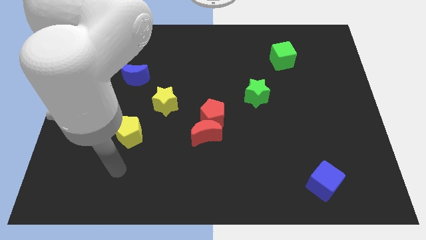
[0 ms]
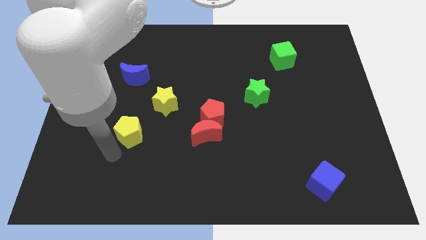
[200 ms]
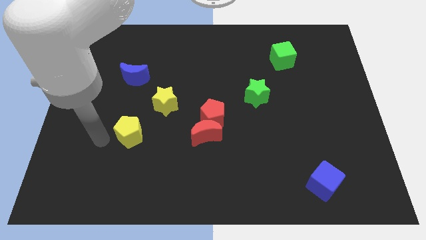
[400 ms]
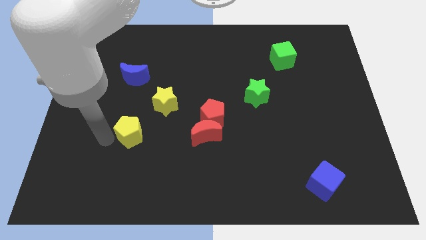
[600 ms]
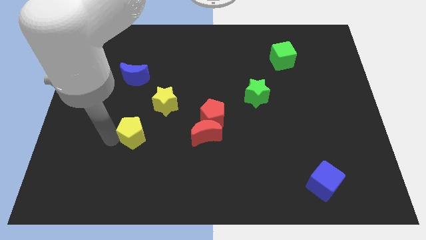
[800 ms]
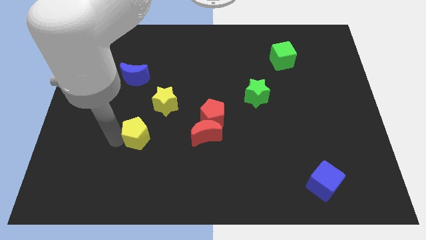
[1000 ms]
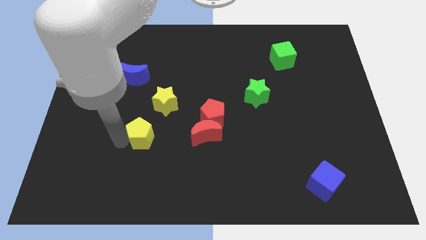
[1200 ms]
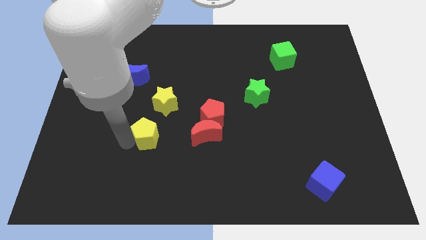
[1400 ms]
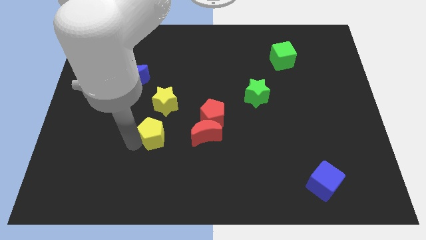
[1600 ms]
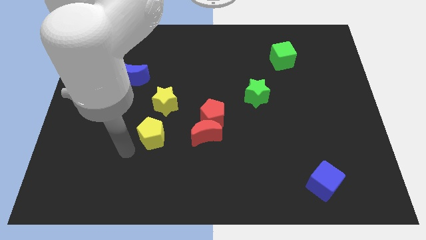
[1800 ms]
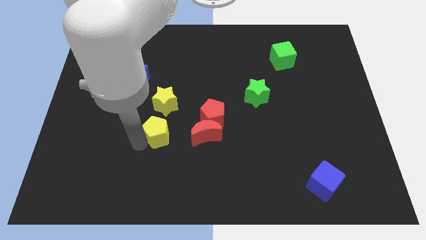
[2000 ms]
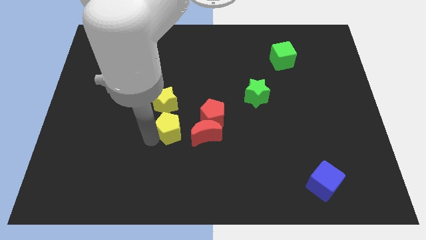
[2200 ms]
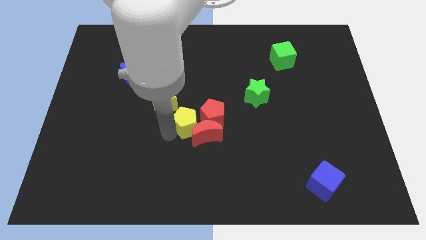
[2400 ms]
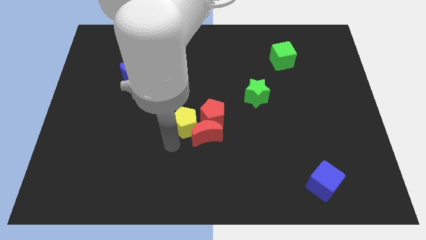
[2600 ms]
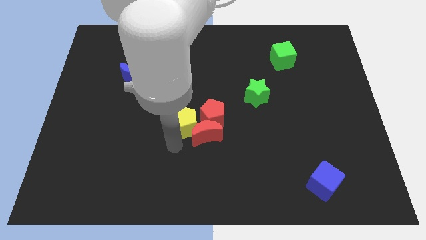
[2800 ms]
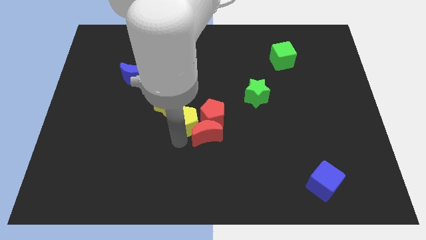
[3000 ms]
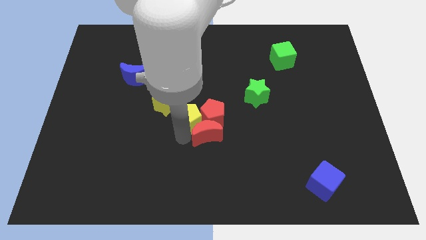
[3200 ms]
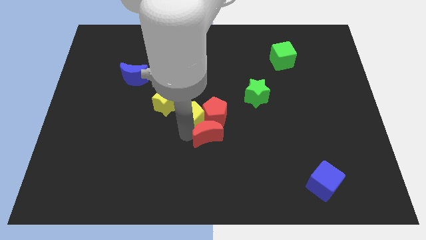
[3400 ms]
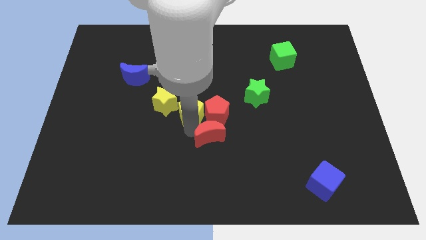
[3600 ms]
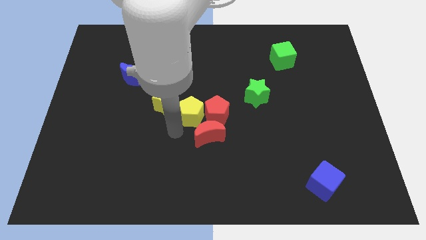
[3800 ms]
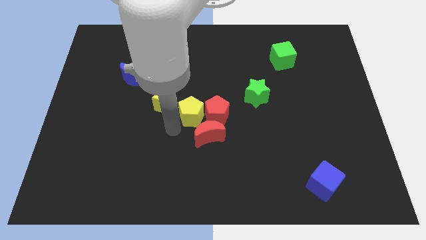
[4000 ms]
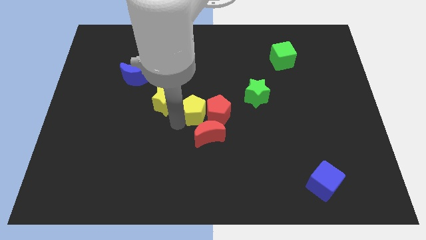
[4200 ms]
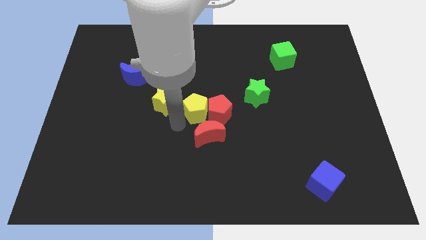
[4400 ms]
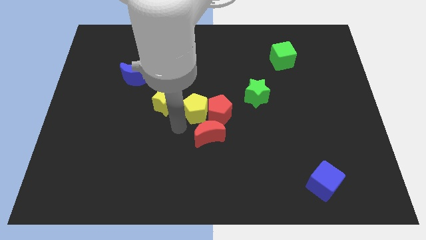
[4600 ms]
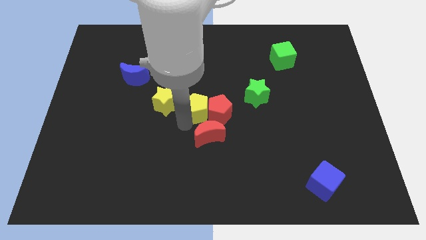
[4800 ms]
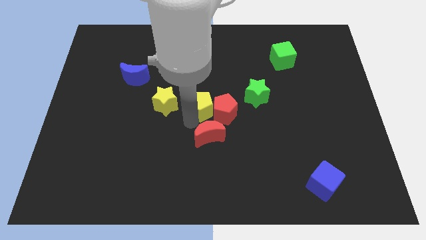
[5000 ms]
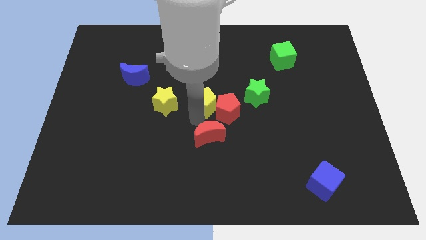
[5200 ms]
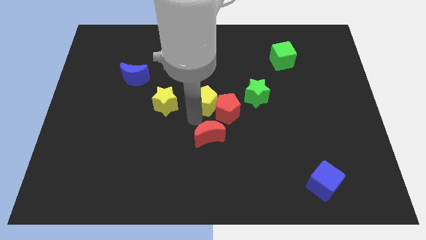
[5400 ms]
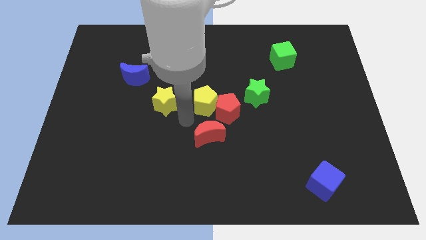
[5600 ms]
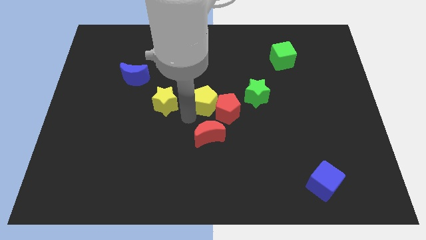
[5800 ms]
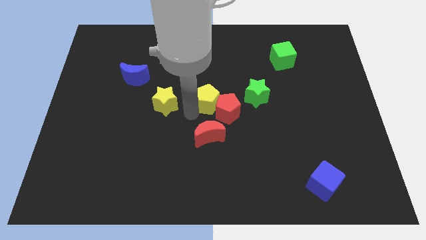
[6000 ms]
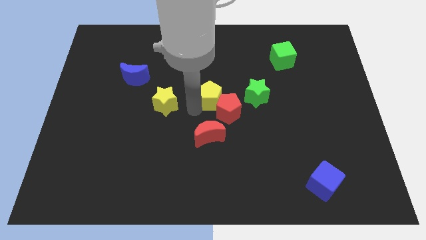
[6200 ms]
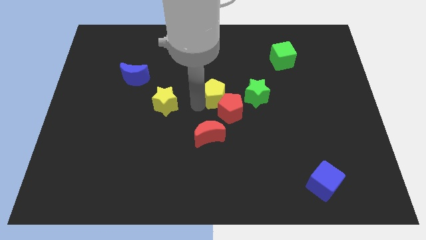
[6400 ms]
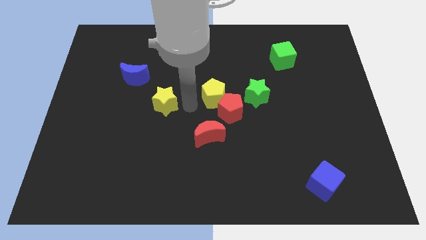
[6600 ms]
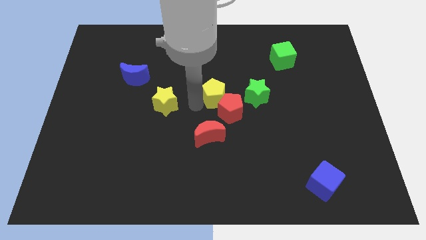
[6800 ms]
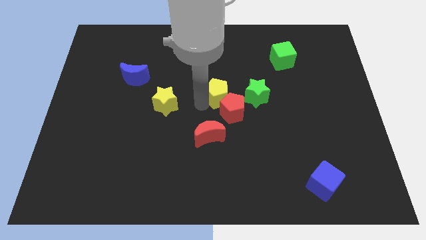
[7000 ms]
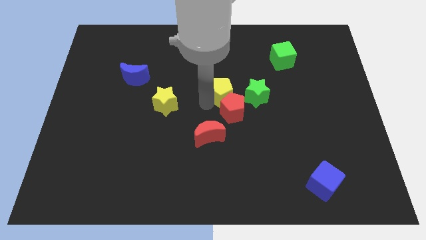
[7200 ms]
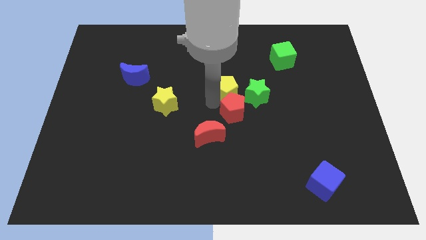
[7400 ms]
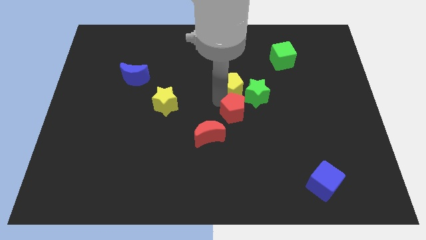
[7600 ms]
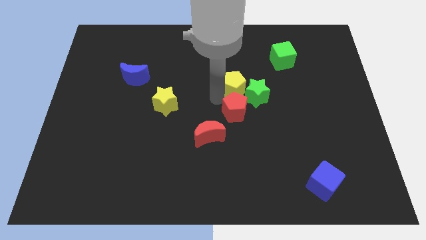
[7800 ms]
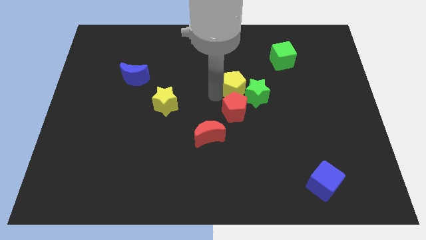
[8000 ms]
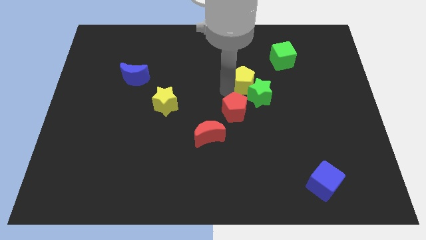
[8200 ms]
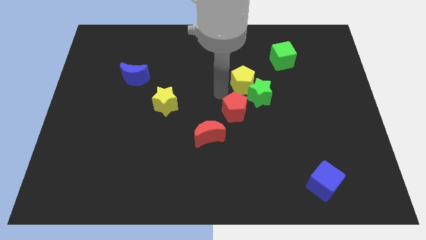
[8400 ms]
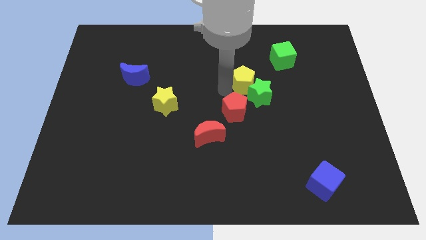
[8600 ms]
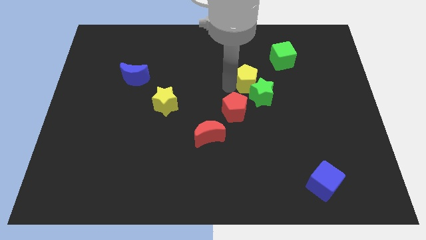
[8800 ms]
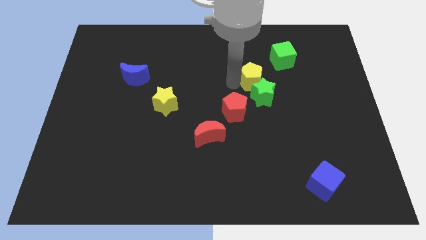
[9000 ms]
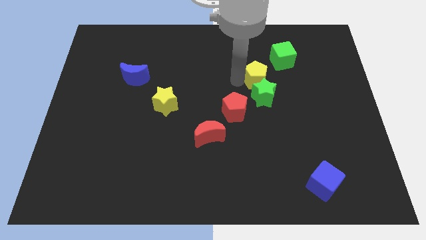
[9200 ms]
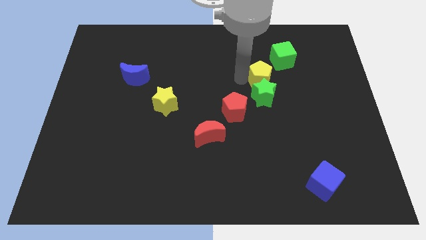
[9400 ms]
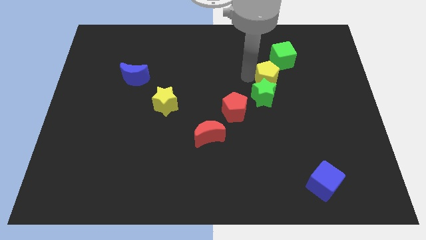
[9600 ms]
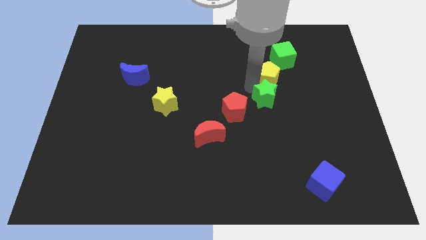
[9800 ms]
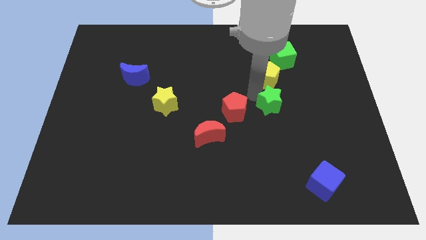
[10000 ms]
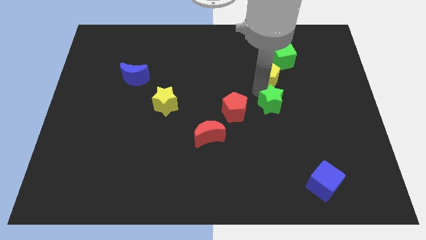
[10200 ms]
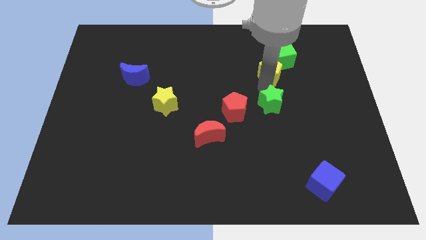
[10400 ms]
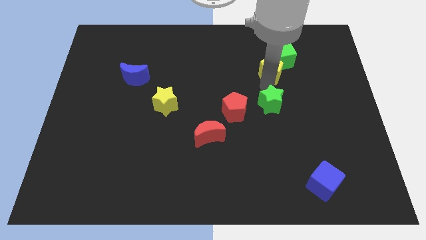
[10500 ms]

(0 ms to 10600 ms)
push the yellow pentagon to the green cube

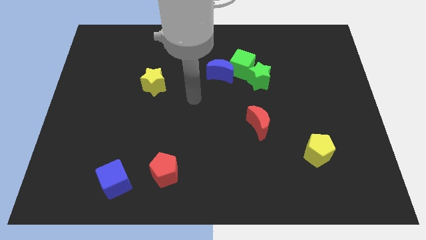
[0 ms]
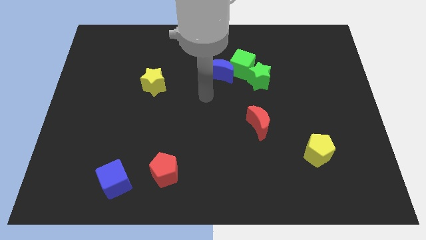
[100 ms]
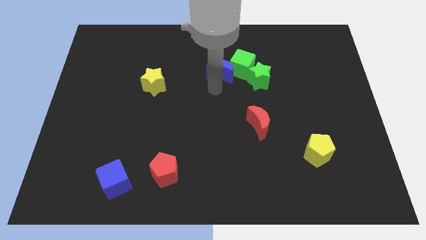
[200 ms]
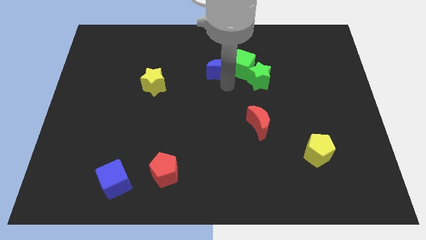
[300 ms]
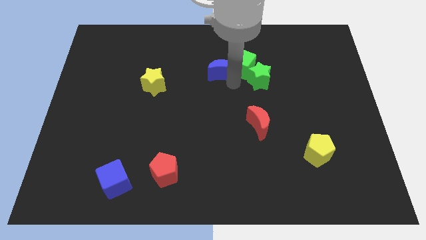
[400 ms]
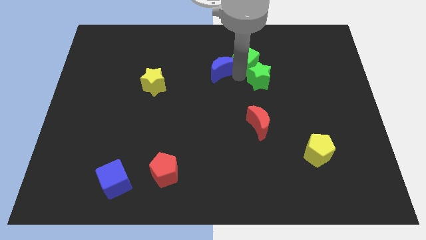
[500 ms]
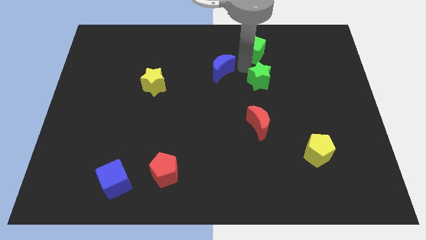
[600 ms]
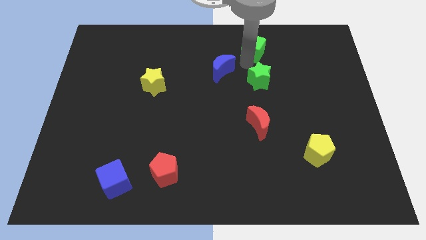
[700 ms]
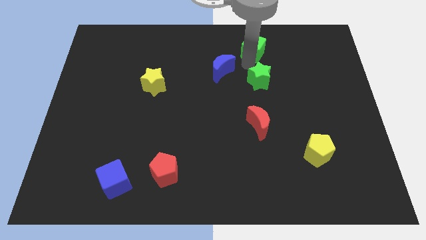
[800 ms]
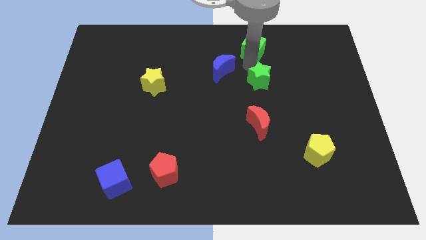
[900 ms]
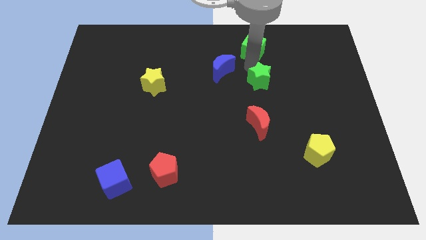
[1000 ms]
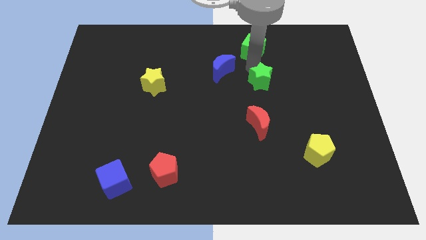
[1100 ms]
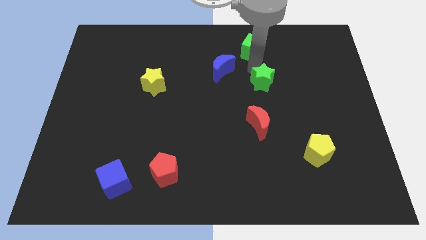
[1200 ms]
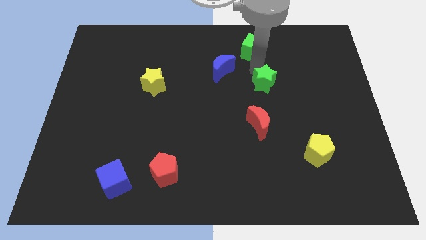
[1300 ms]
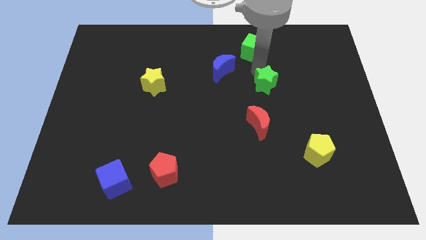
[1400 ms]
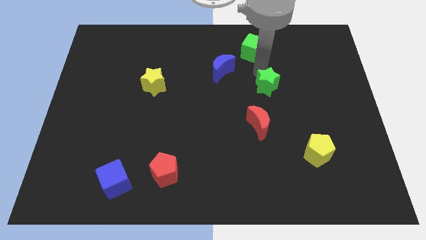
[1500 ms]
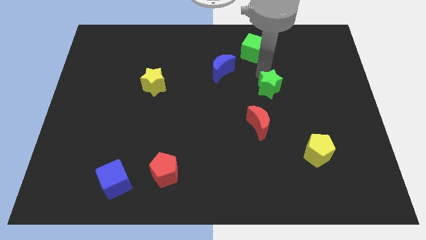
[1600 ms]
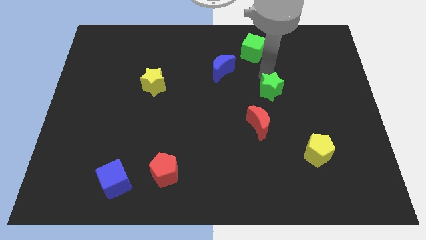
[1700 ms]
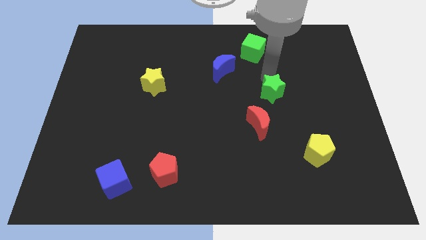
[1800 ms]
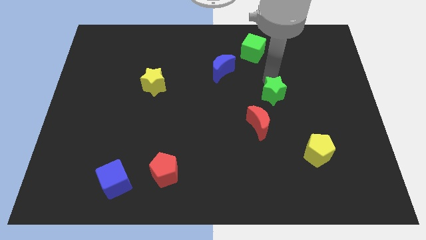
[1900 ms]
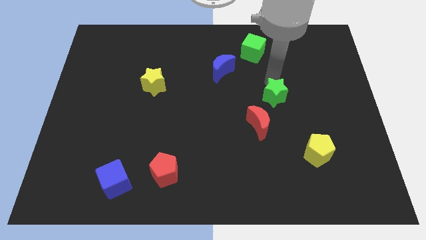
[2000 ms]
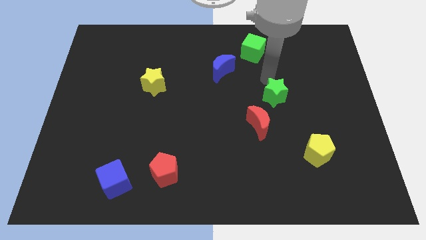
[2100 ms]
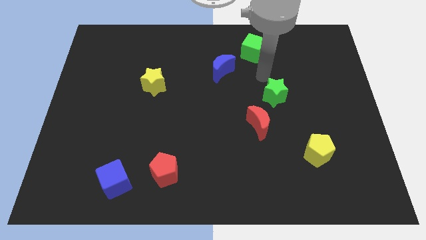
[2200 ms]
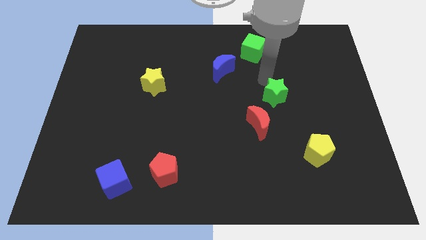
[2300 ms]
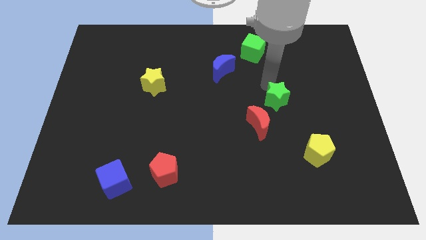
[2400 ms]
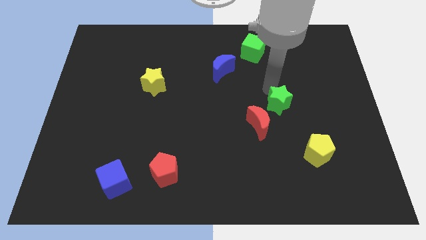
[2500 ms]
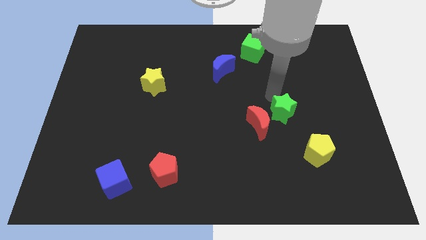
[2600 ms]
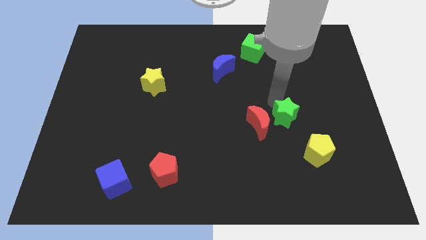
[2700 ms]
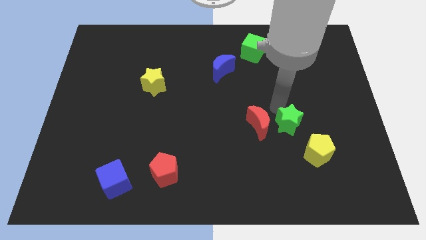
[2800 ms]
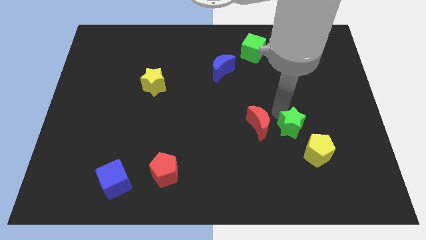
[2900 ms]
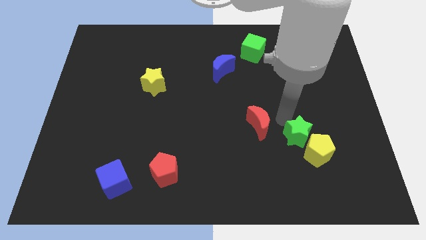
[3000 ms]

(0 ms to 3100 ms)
move the green star next to the yellow pentagon

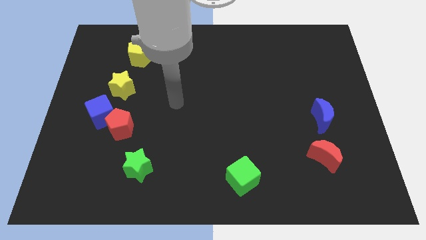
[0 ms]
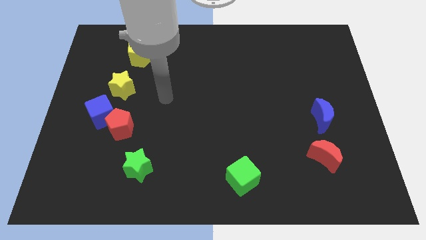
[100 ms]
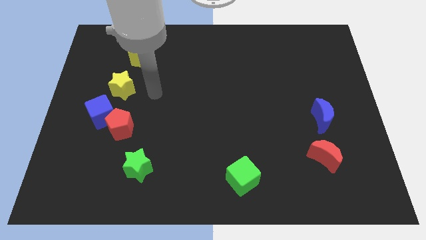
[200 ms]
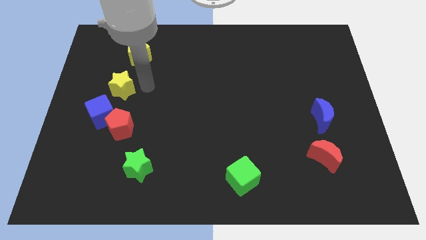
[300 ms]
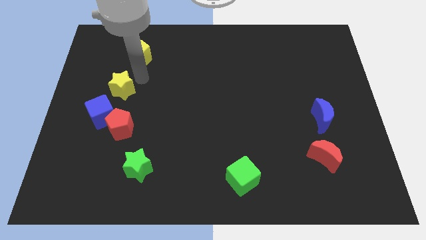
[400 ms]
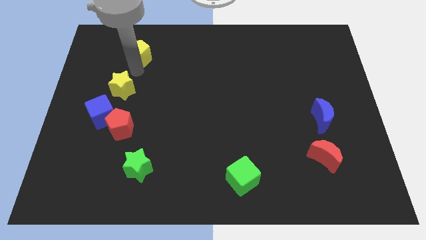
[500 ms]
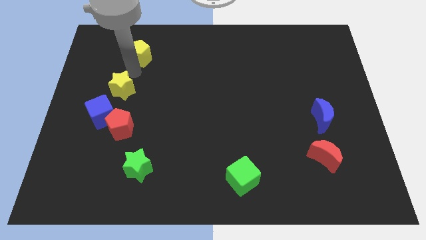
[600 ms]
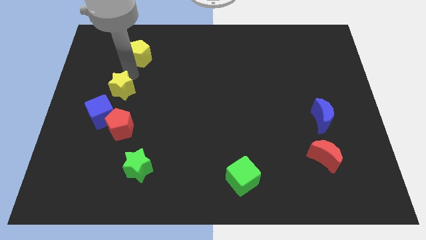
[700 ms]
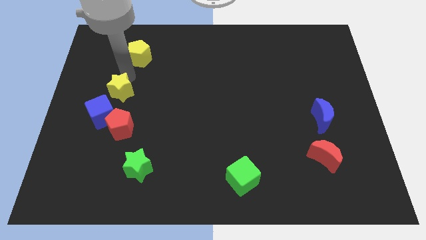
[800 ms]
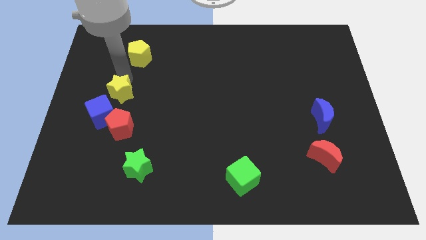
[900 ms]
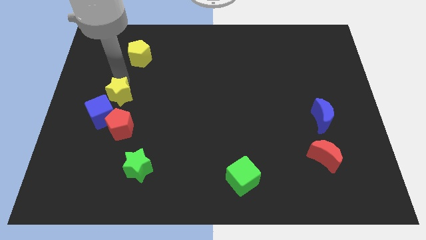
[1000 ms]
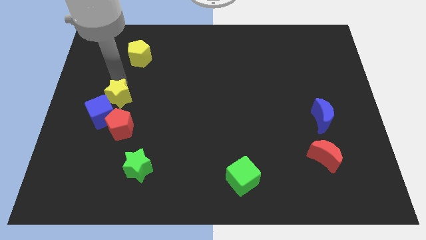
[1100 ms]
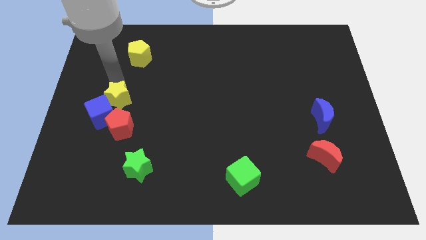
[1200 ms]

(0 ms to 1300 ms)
put the yellow star next to the blue cube
